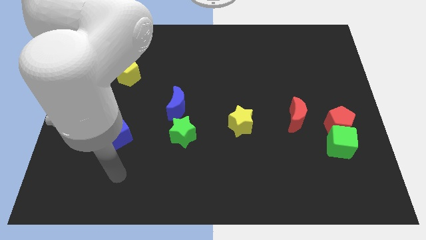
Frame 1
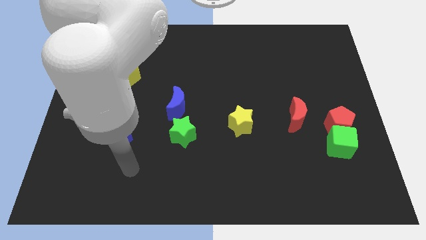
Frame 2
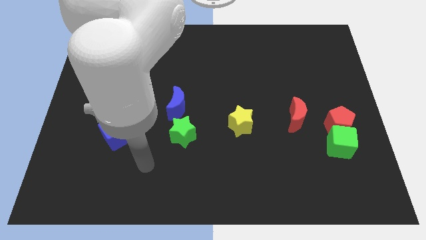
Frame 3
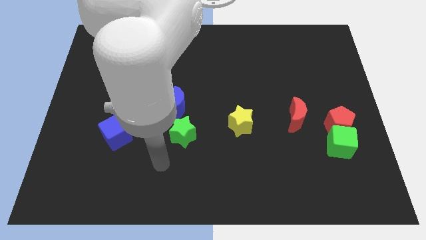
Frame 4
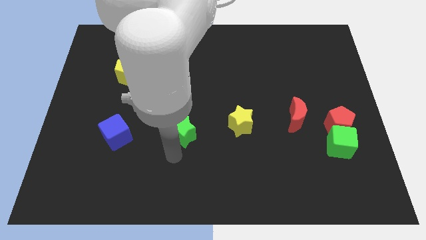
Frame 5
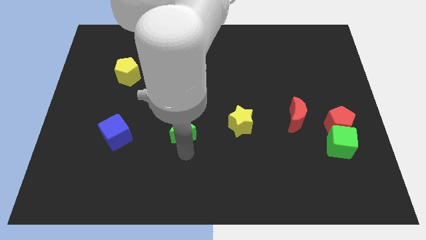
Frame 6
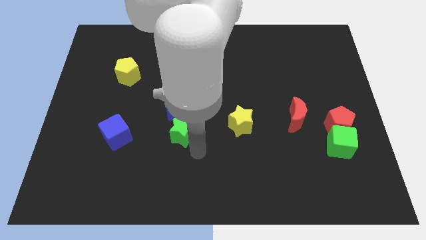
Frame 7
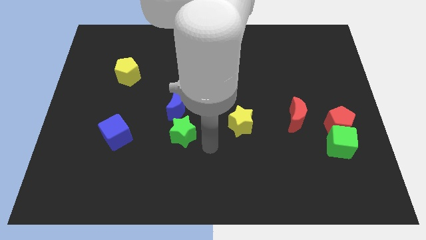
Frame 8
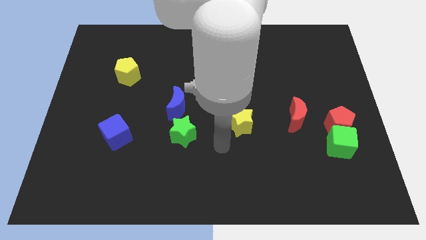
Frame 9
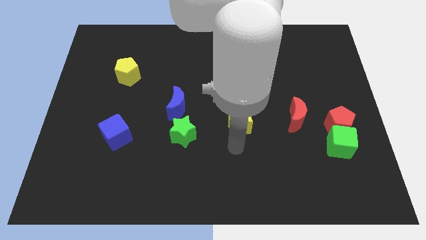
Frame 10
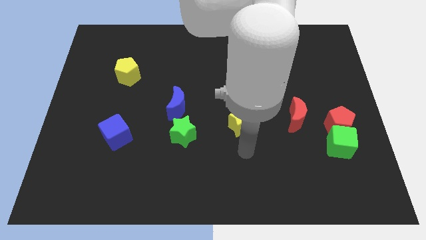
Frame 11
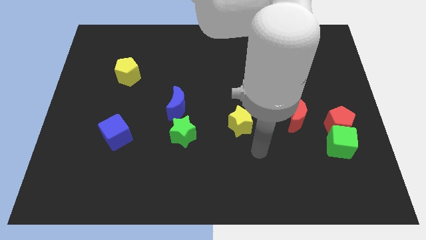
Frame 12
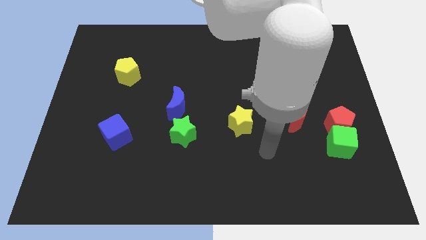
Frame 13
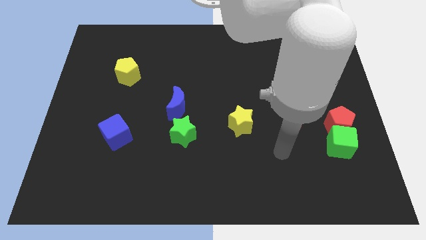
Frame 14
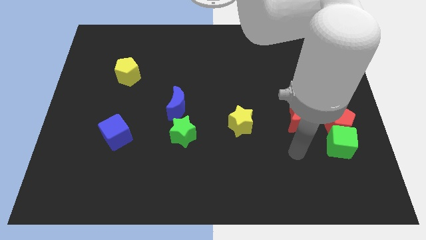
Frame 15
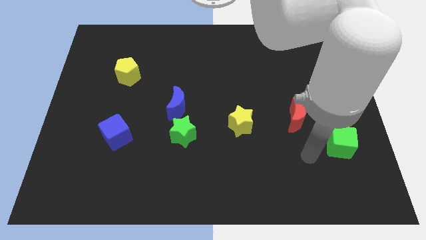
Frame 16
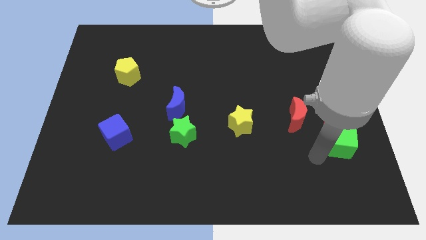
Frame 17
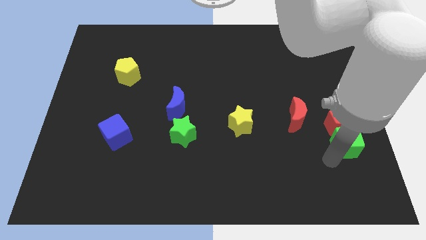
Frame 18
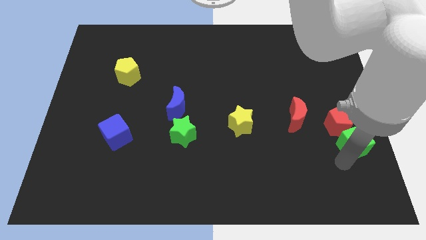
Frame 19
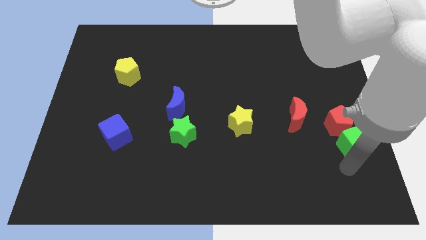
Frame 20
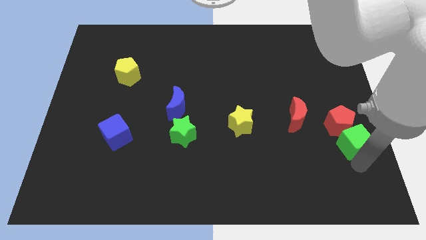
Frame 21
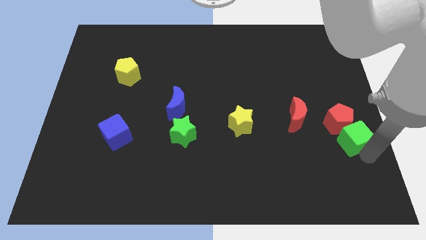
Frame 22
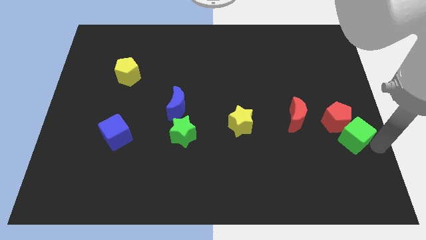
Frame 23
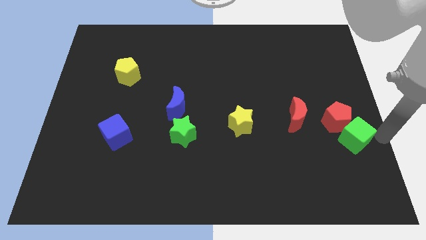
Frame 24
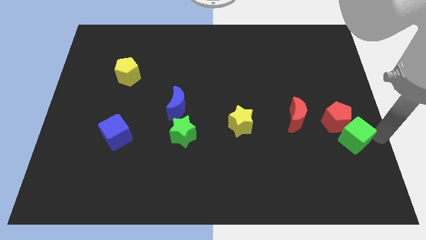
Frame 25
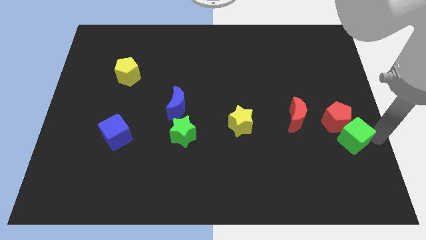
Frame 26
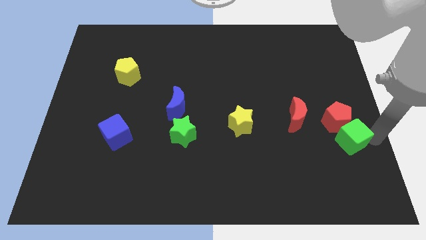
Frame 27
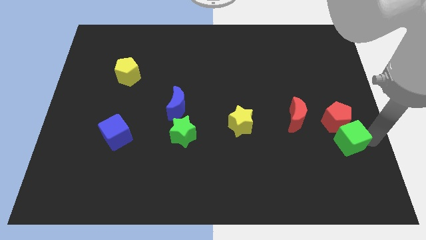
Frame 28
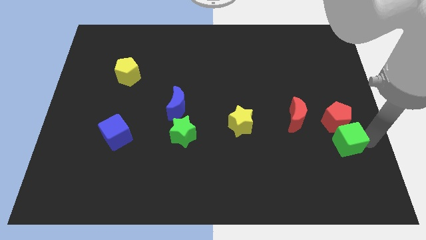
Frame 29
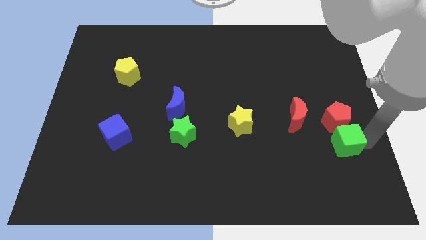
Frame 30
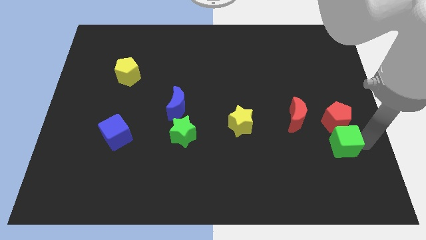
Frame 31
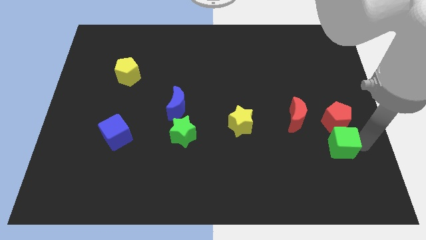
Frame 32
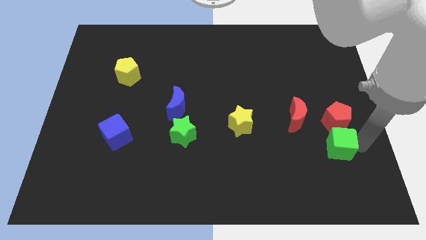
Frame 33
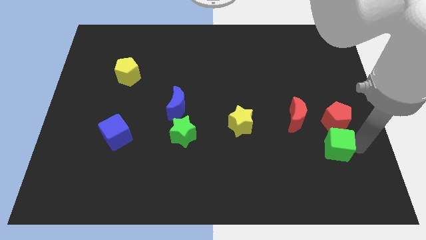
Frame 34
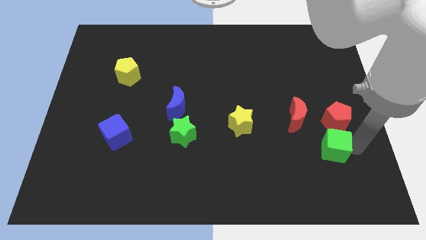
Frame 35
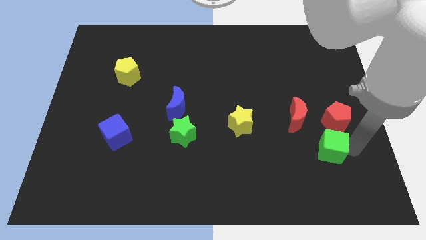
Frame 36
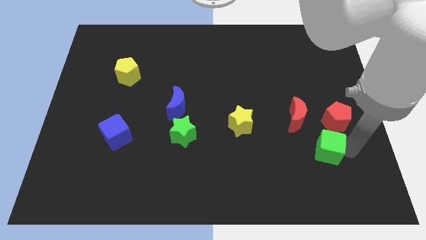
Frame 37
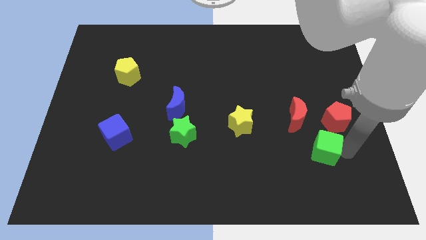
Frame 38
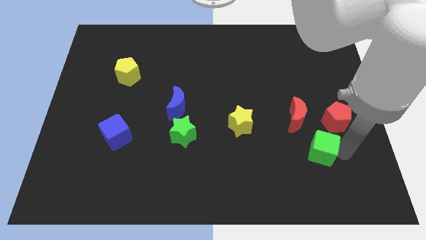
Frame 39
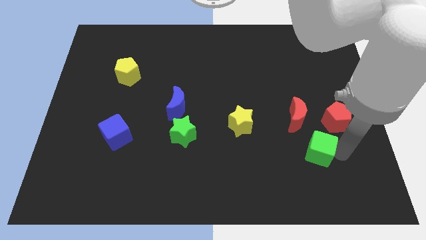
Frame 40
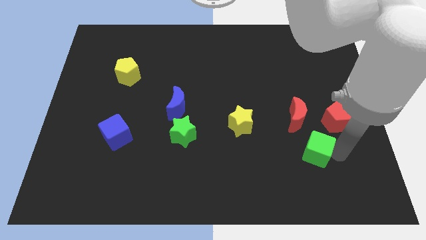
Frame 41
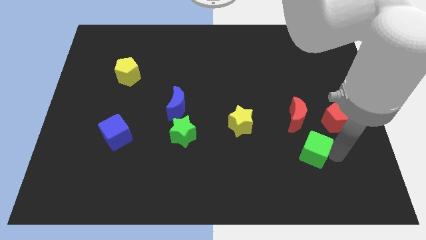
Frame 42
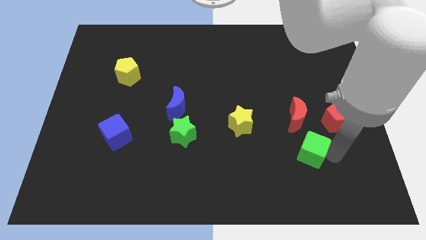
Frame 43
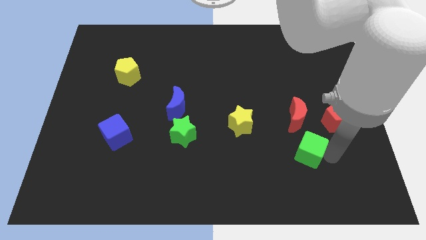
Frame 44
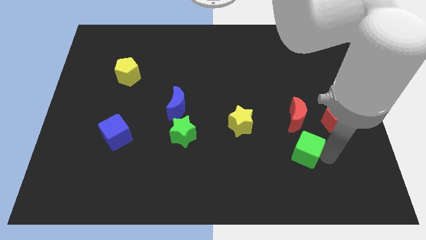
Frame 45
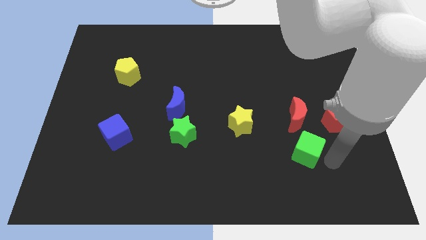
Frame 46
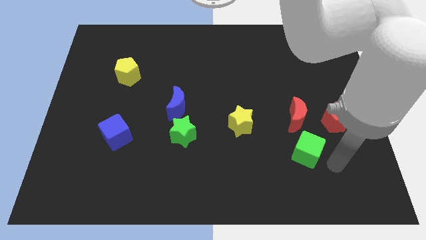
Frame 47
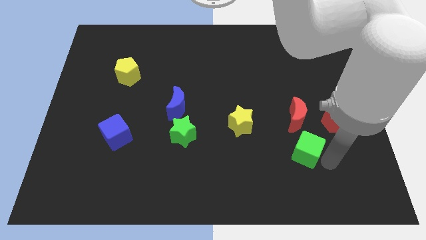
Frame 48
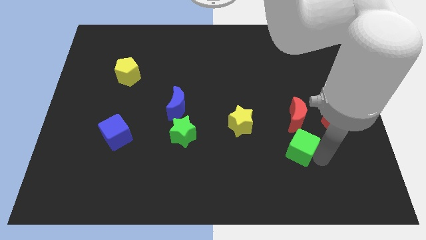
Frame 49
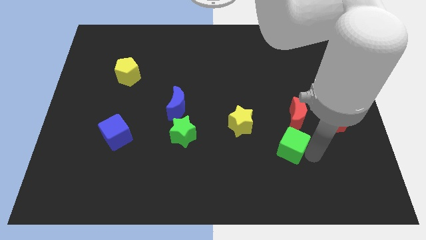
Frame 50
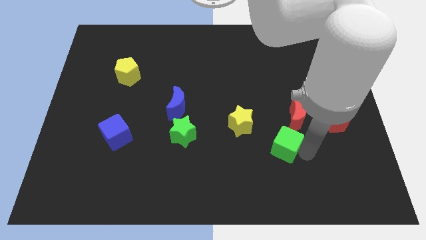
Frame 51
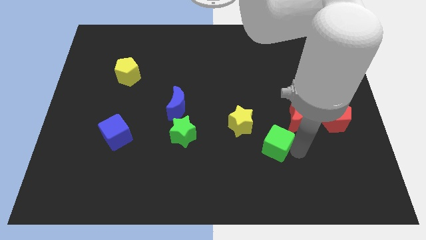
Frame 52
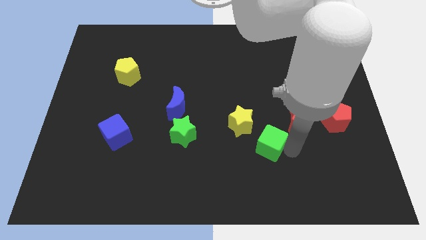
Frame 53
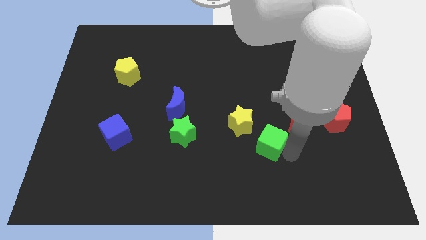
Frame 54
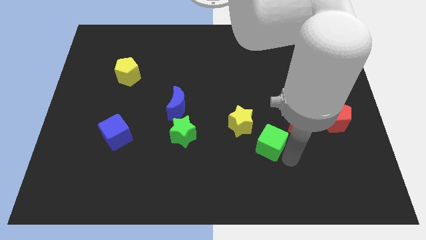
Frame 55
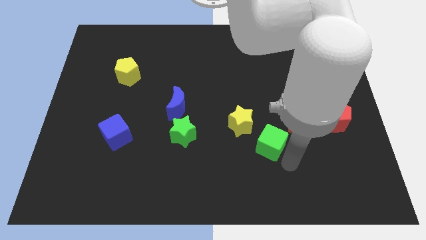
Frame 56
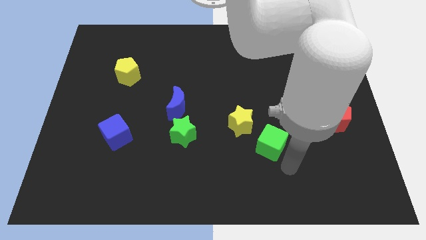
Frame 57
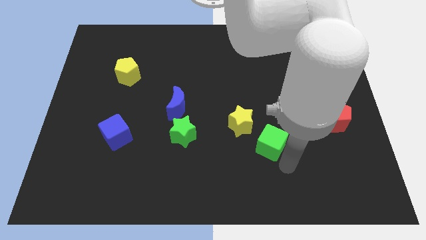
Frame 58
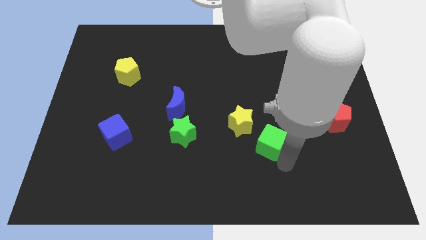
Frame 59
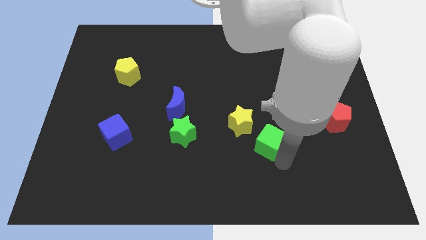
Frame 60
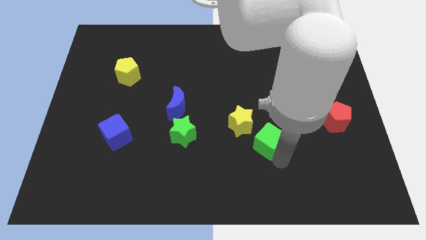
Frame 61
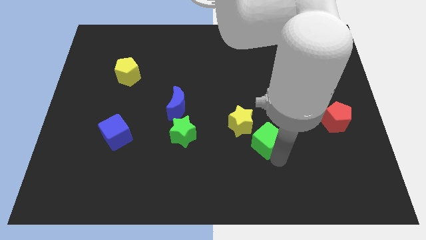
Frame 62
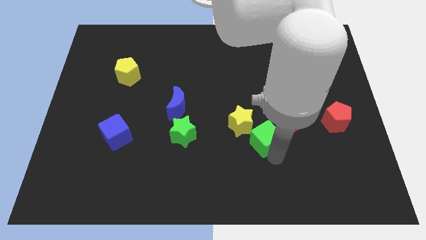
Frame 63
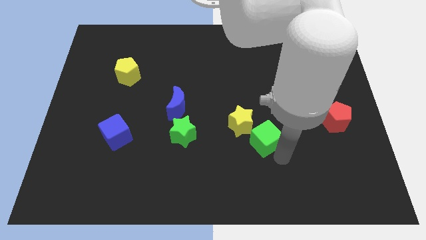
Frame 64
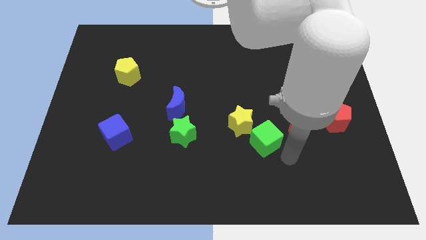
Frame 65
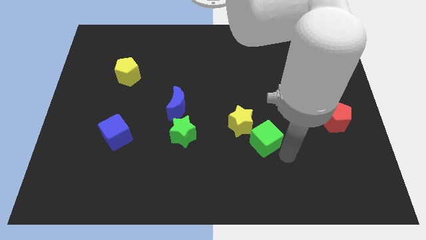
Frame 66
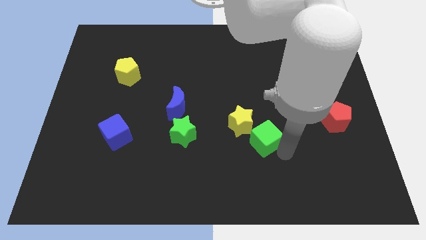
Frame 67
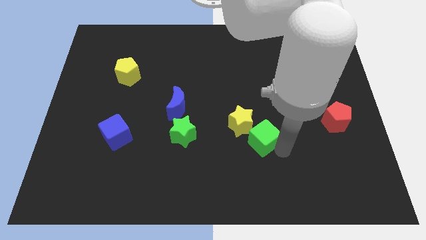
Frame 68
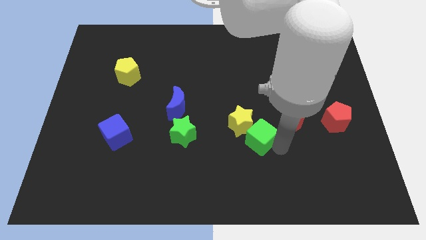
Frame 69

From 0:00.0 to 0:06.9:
move the green cube to the yellow star

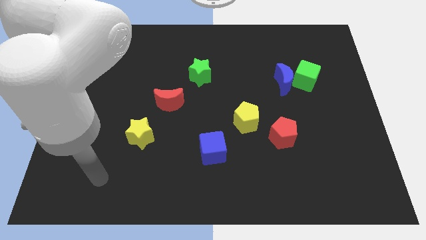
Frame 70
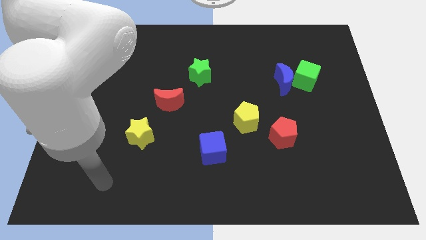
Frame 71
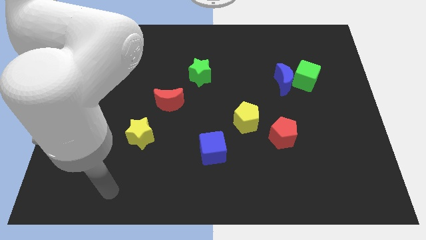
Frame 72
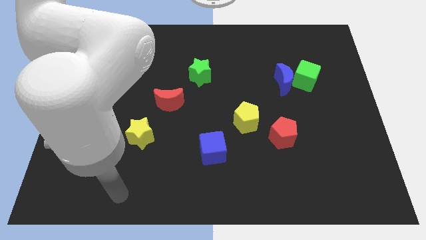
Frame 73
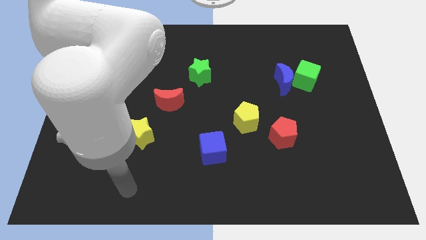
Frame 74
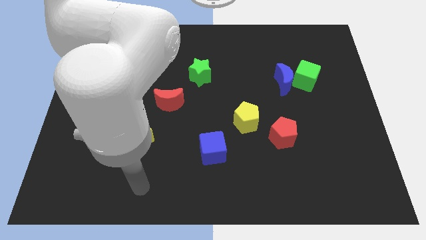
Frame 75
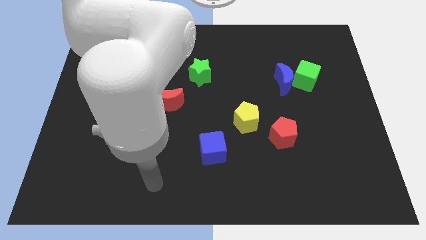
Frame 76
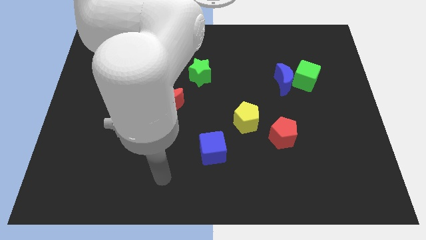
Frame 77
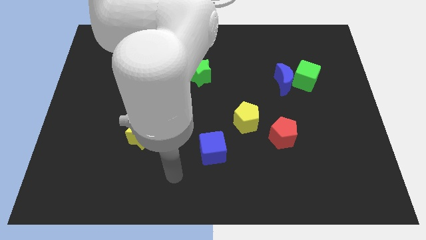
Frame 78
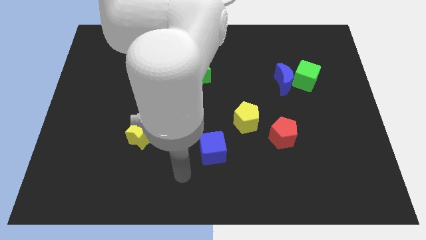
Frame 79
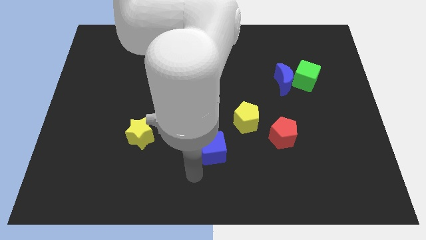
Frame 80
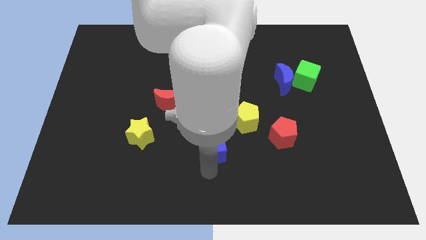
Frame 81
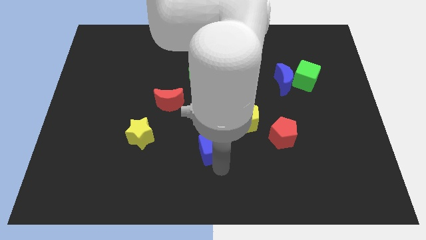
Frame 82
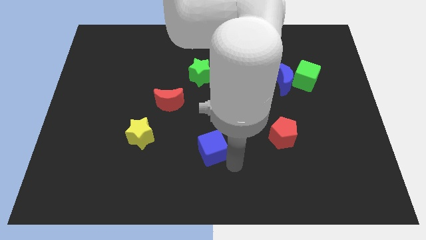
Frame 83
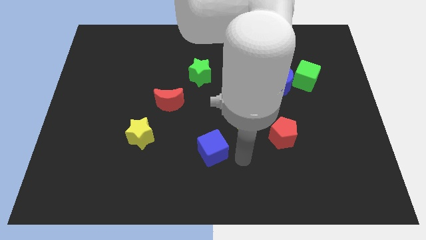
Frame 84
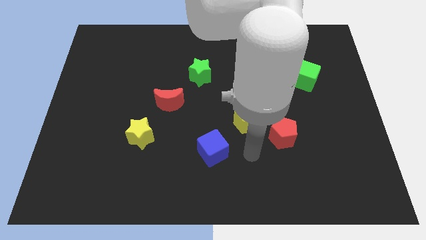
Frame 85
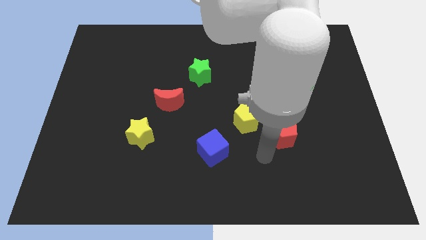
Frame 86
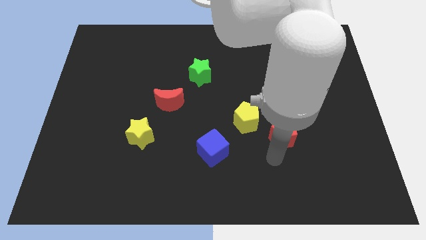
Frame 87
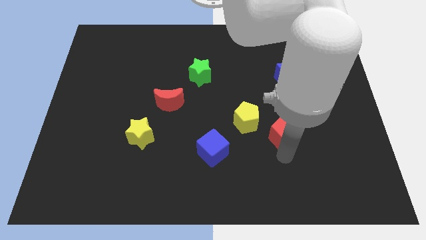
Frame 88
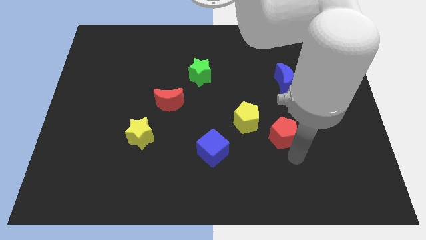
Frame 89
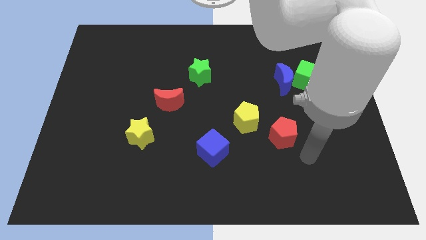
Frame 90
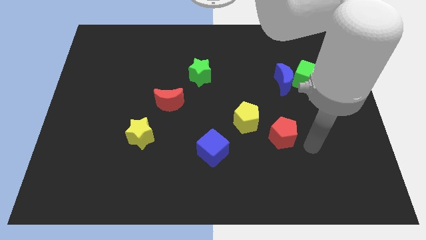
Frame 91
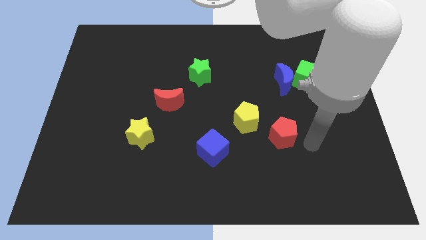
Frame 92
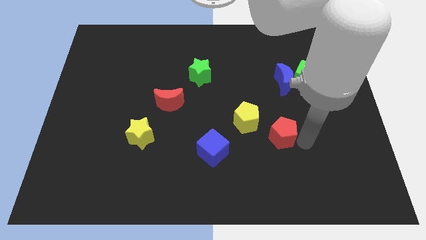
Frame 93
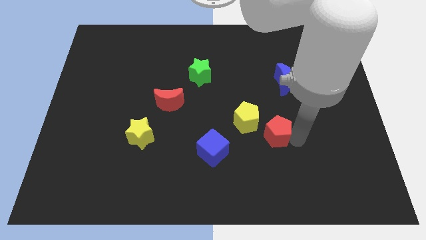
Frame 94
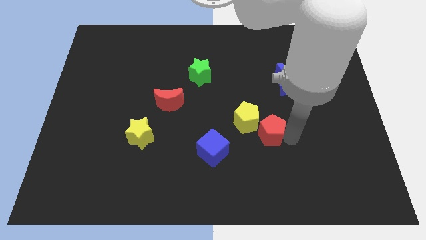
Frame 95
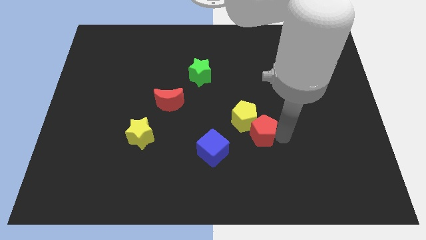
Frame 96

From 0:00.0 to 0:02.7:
push the red pentagon to the yellow pentagon
